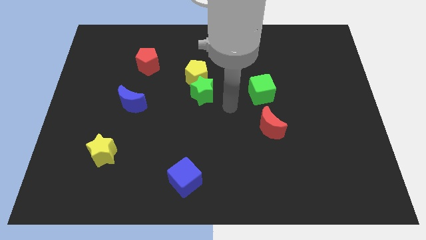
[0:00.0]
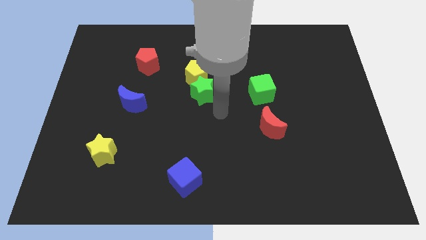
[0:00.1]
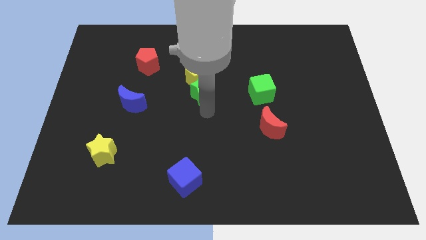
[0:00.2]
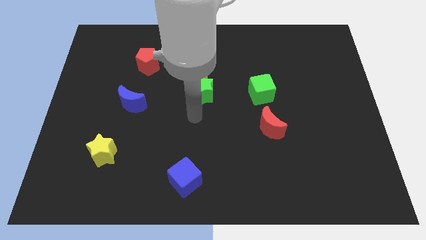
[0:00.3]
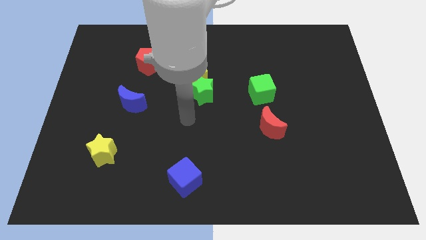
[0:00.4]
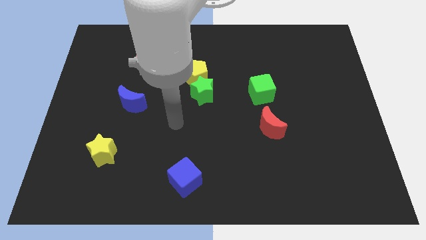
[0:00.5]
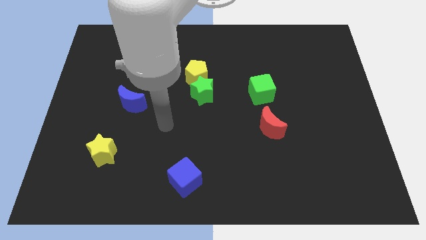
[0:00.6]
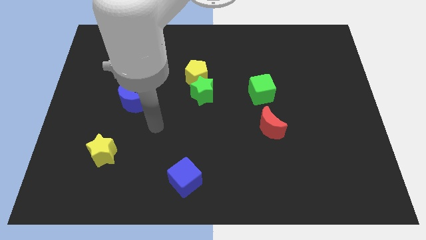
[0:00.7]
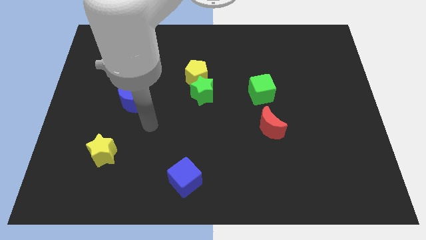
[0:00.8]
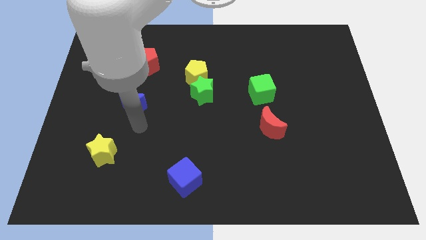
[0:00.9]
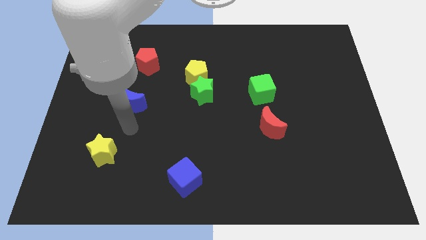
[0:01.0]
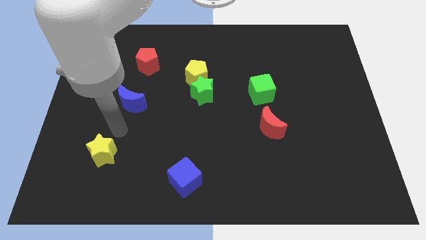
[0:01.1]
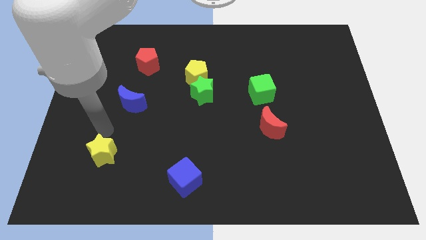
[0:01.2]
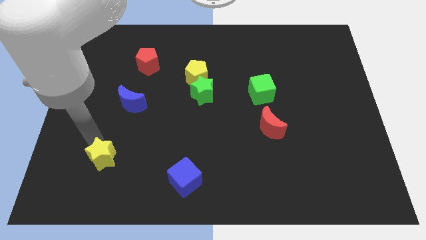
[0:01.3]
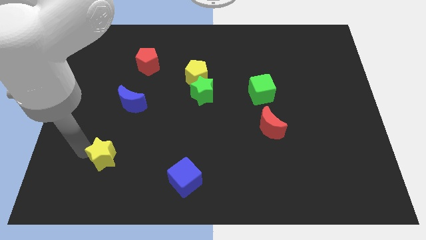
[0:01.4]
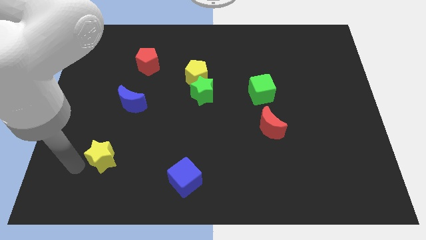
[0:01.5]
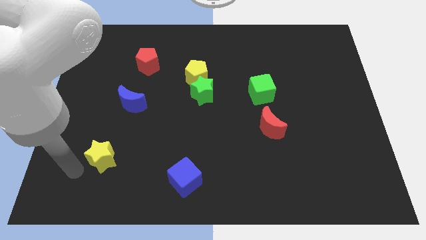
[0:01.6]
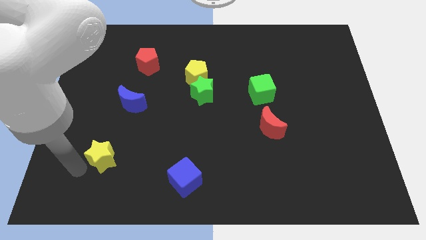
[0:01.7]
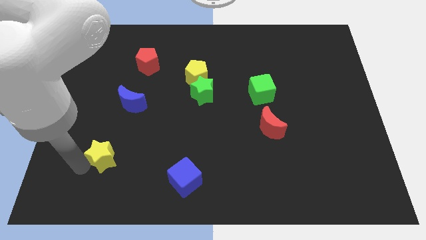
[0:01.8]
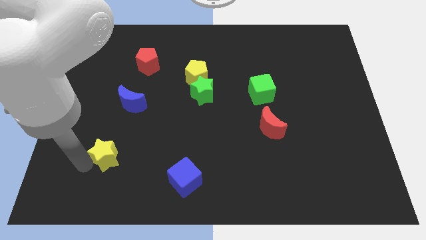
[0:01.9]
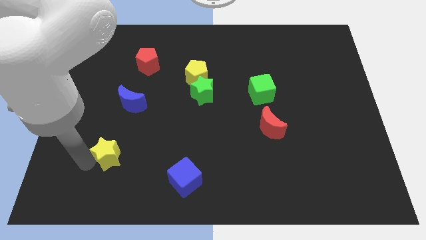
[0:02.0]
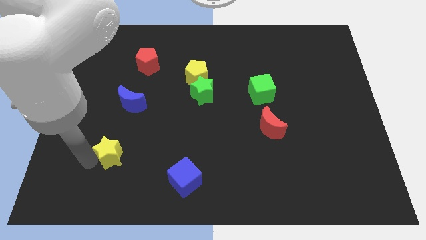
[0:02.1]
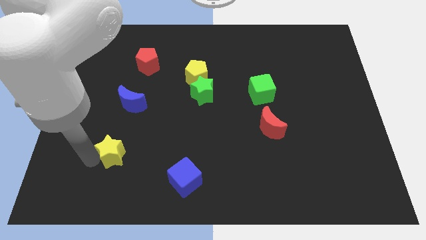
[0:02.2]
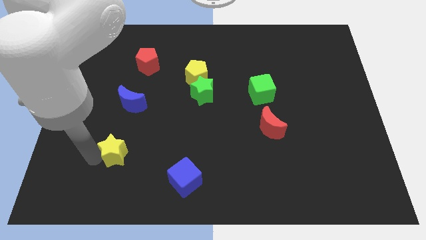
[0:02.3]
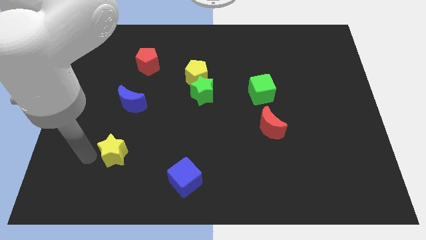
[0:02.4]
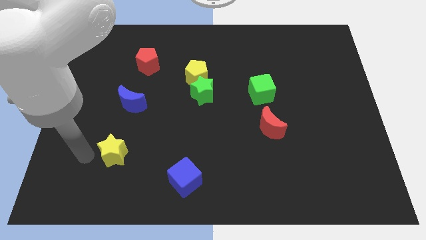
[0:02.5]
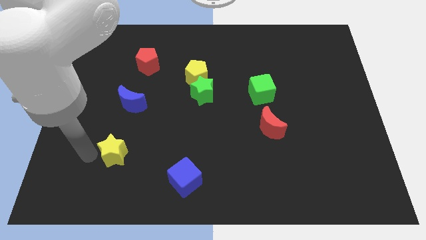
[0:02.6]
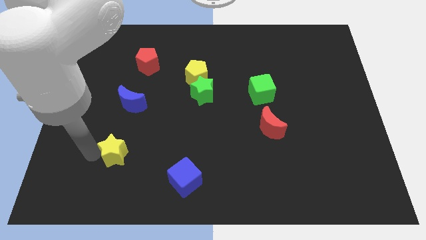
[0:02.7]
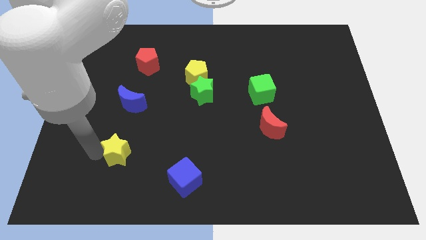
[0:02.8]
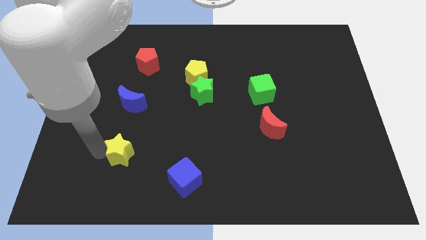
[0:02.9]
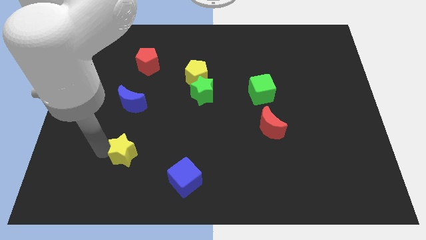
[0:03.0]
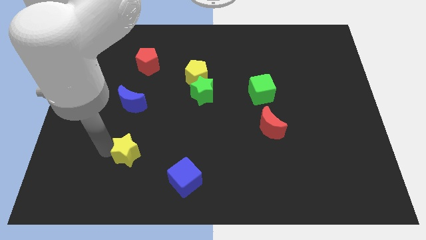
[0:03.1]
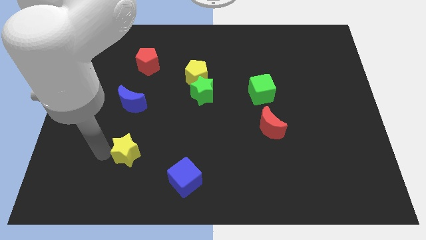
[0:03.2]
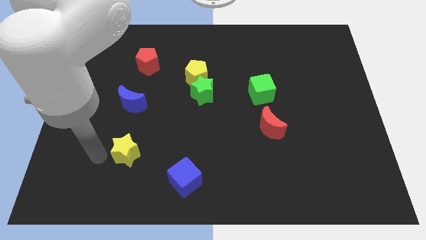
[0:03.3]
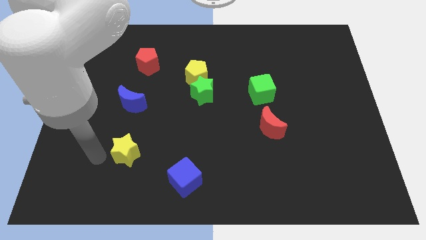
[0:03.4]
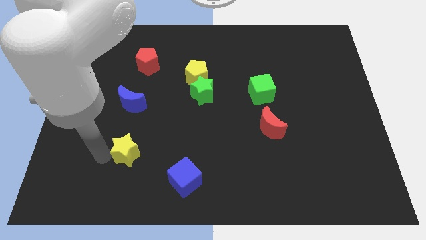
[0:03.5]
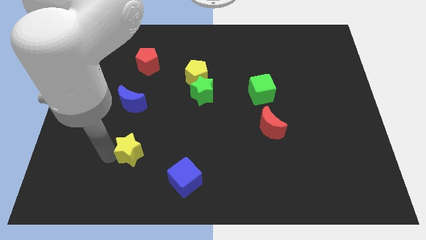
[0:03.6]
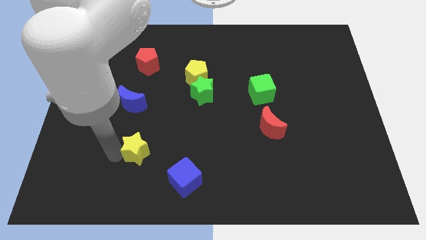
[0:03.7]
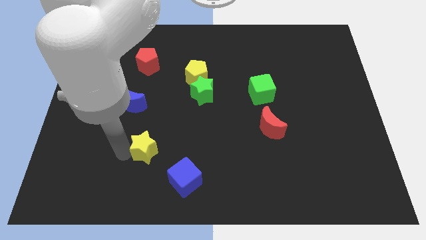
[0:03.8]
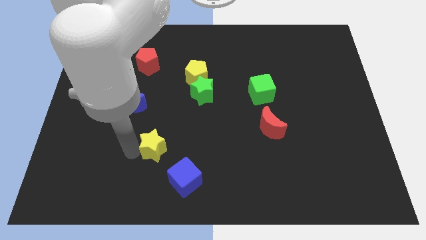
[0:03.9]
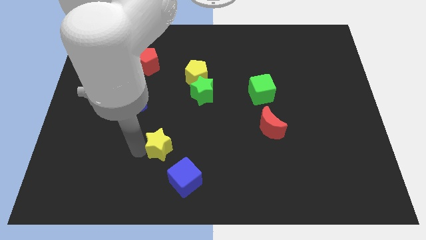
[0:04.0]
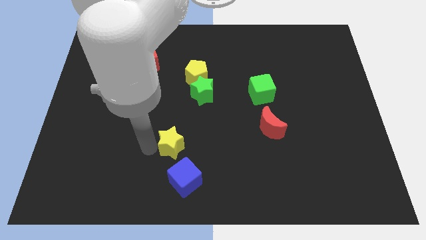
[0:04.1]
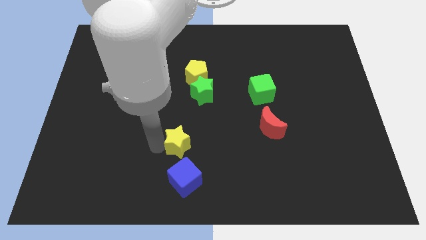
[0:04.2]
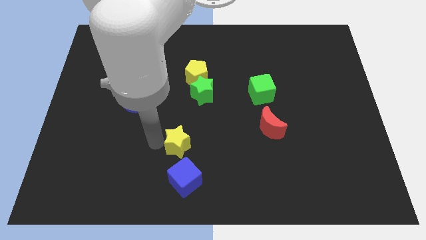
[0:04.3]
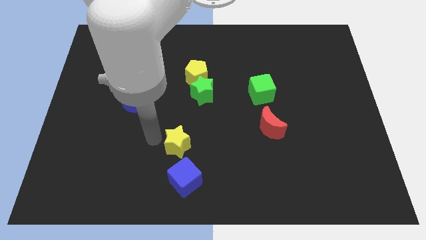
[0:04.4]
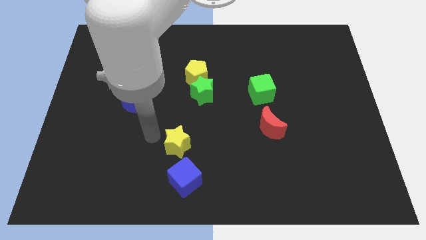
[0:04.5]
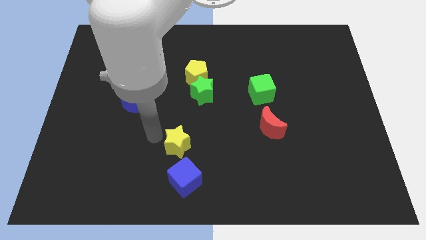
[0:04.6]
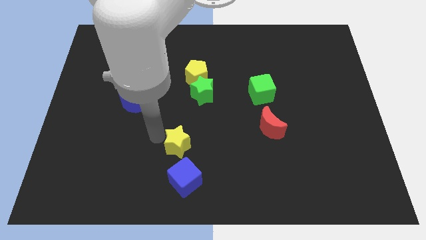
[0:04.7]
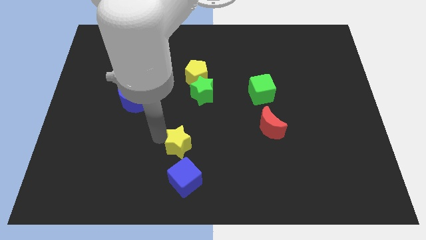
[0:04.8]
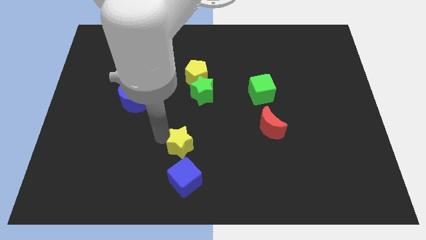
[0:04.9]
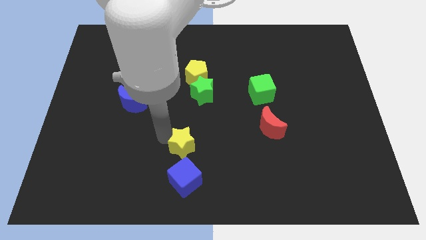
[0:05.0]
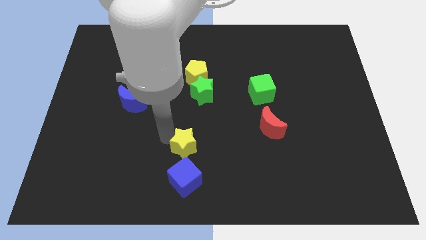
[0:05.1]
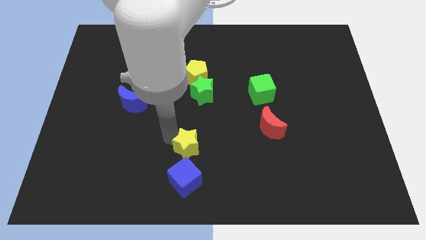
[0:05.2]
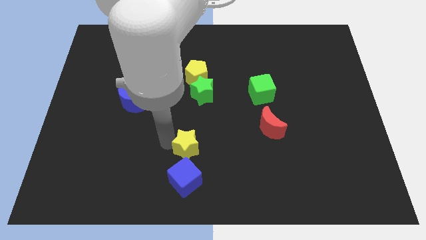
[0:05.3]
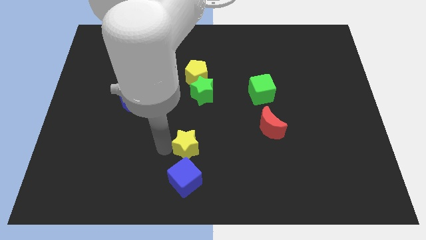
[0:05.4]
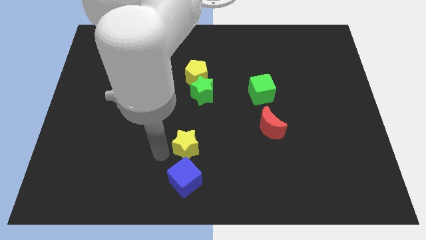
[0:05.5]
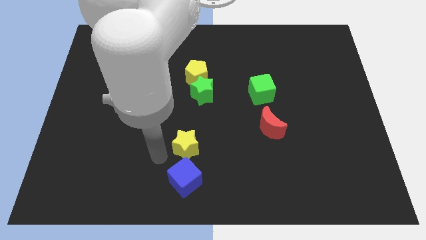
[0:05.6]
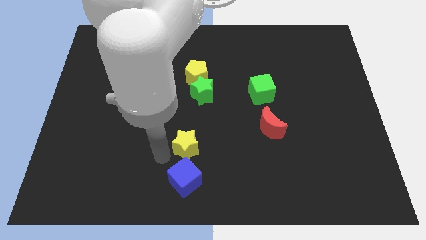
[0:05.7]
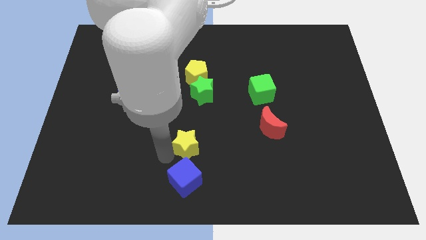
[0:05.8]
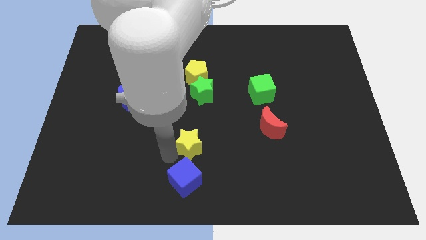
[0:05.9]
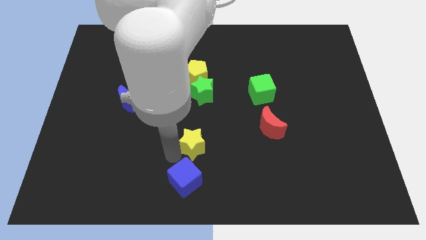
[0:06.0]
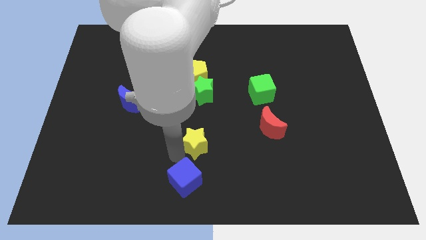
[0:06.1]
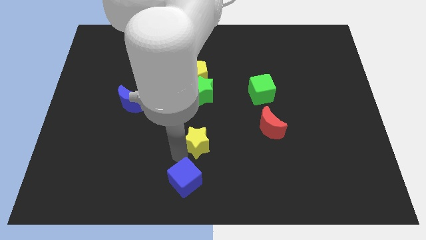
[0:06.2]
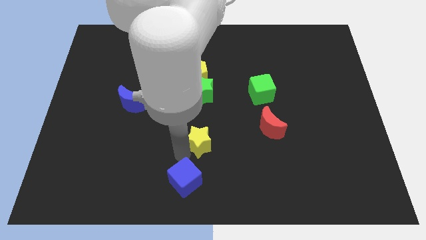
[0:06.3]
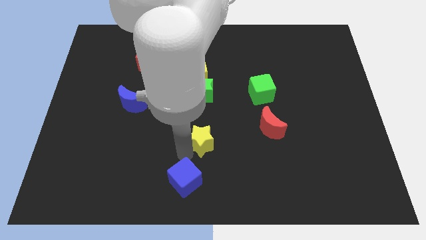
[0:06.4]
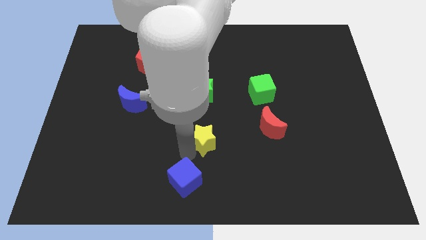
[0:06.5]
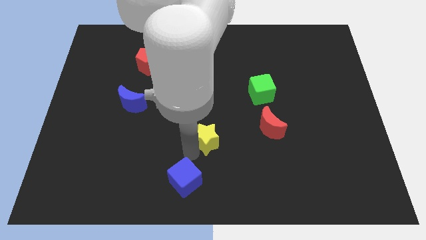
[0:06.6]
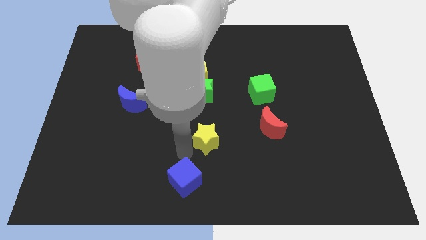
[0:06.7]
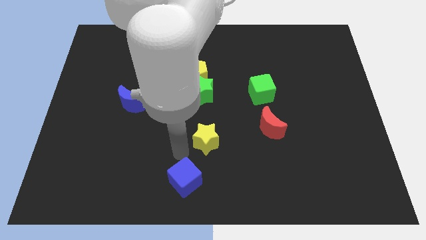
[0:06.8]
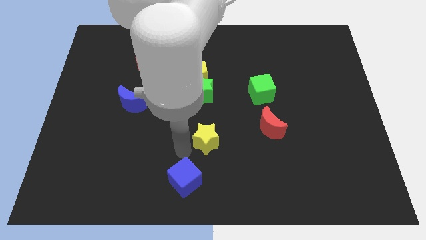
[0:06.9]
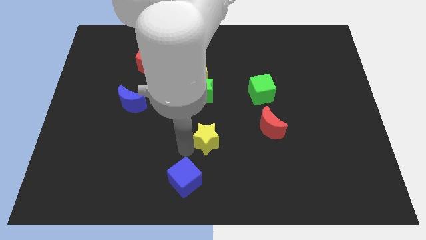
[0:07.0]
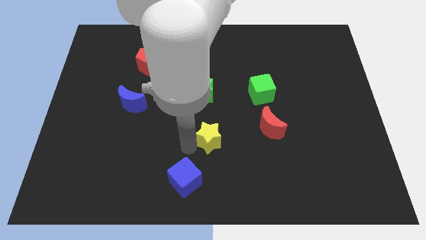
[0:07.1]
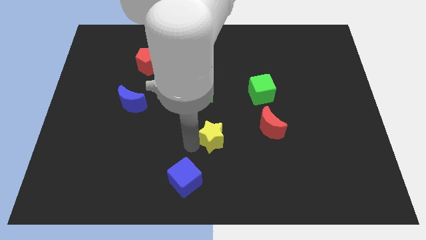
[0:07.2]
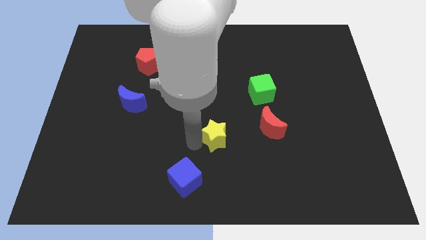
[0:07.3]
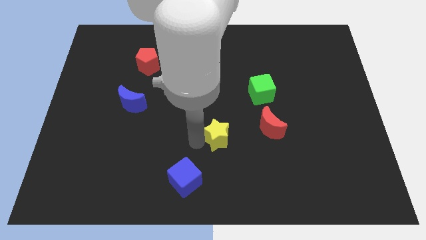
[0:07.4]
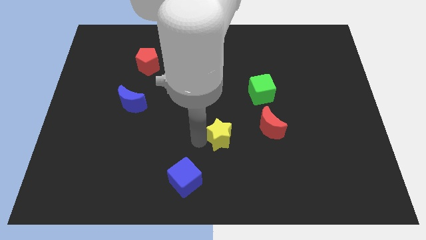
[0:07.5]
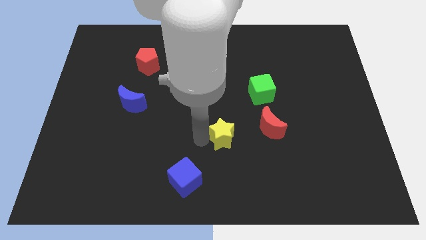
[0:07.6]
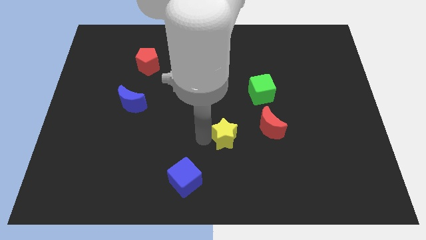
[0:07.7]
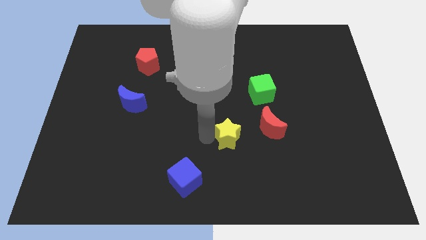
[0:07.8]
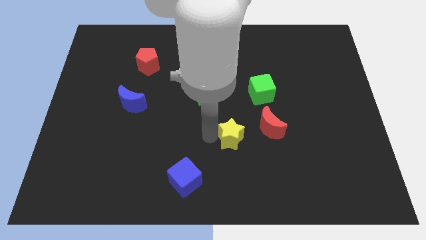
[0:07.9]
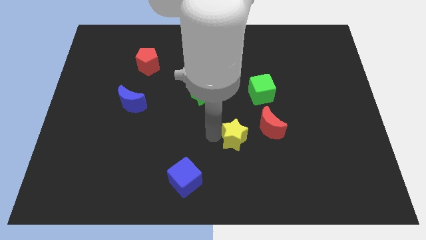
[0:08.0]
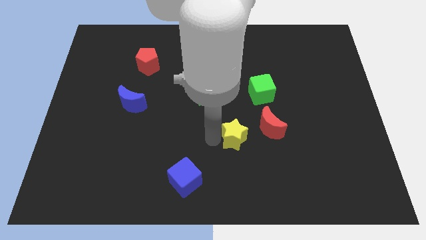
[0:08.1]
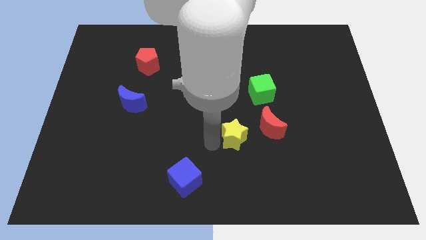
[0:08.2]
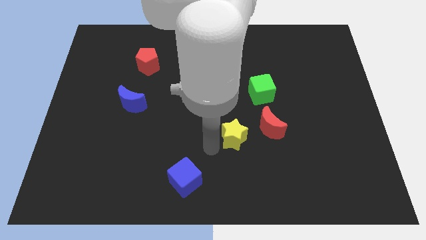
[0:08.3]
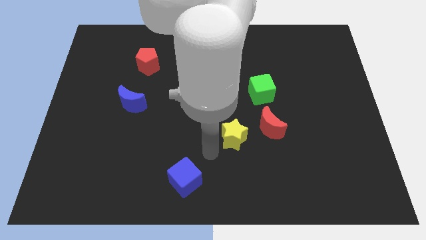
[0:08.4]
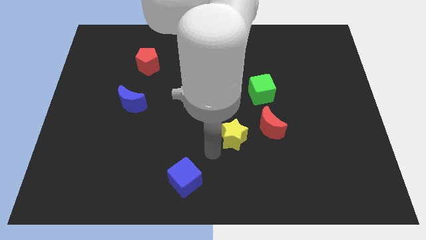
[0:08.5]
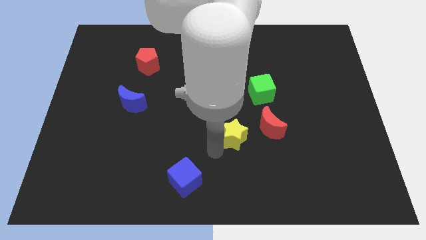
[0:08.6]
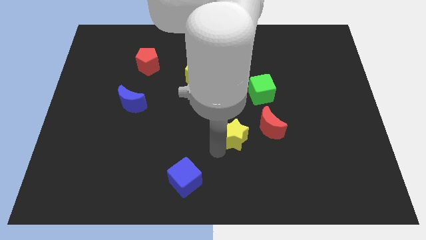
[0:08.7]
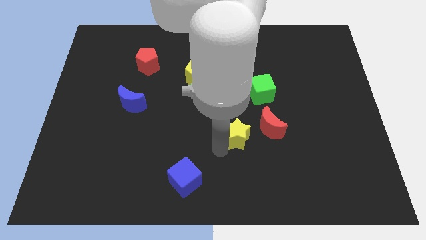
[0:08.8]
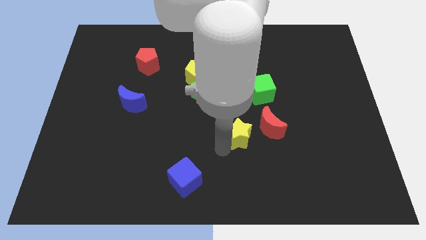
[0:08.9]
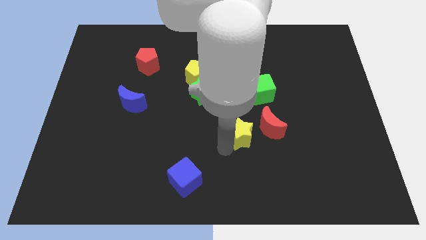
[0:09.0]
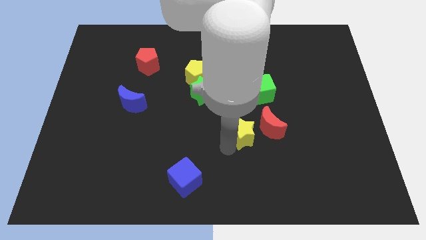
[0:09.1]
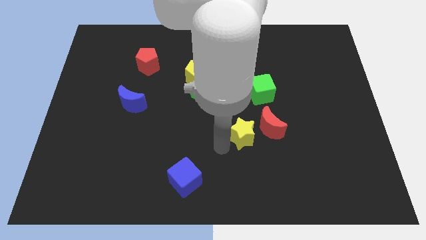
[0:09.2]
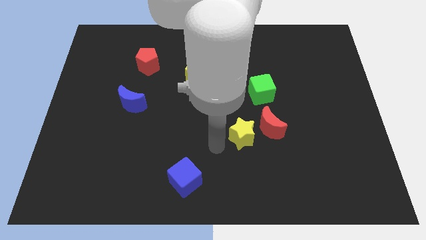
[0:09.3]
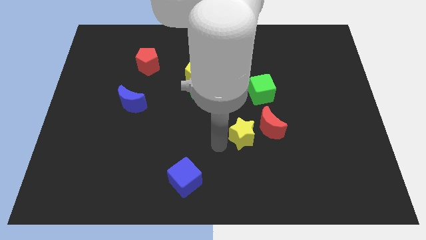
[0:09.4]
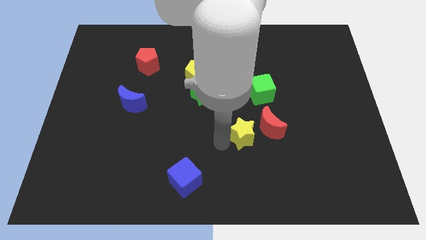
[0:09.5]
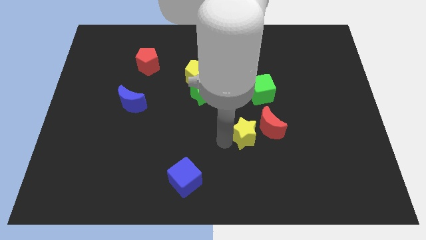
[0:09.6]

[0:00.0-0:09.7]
push the yellow star next to the red moon
